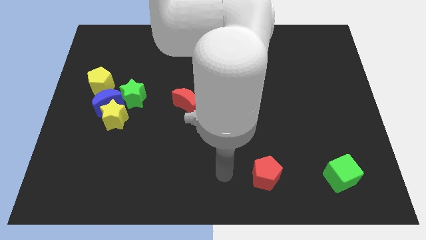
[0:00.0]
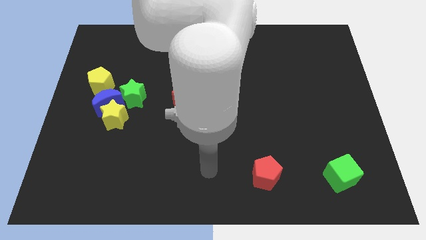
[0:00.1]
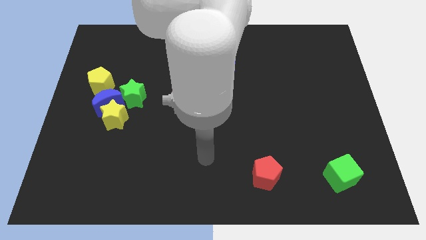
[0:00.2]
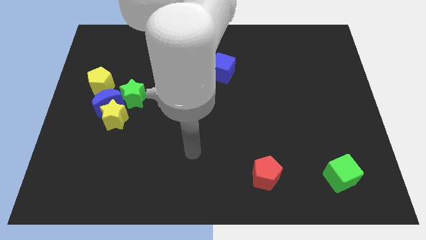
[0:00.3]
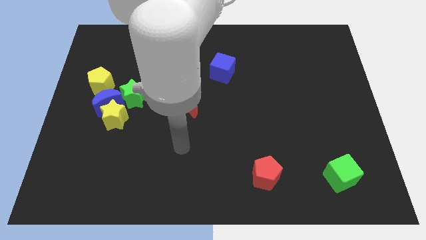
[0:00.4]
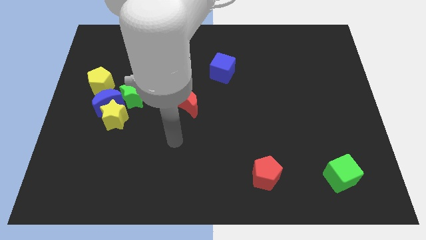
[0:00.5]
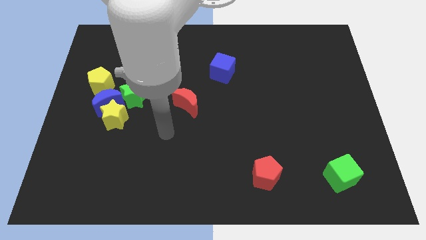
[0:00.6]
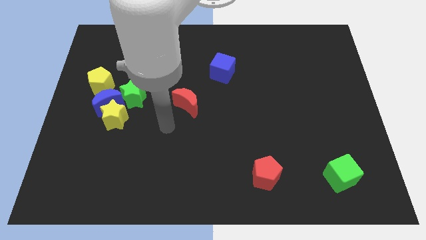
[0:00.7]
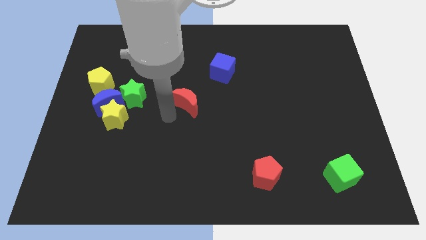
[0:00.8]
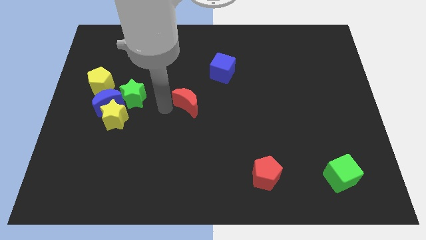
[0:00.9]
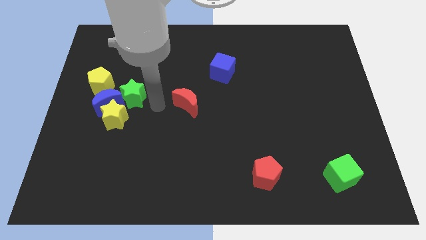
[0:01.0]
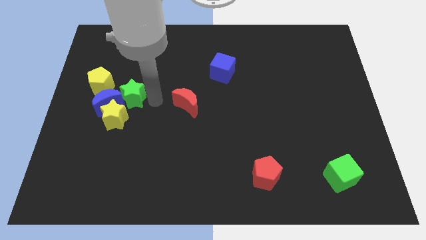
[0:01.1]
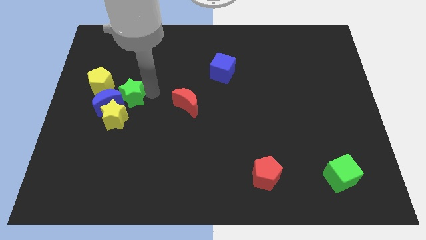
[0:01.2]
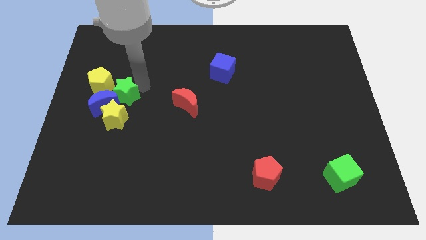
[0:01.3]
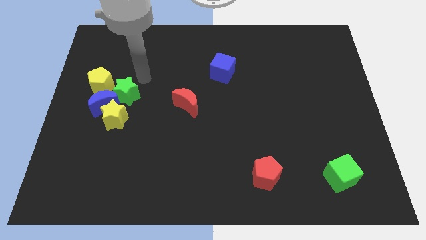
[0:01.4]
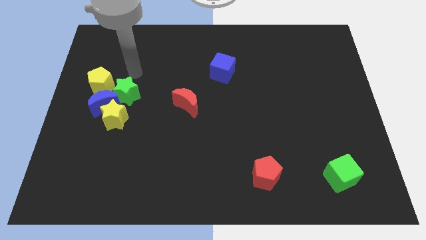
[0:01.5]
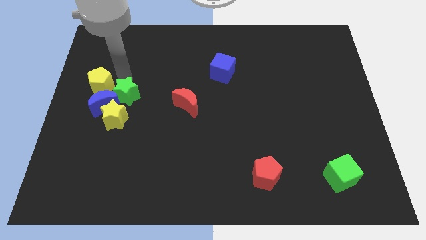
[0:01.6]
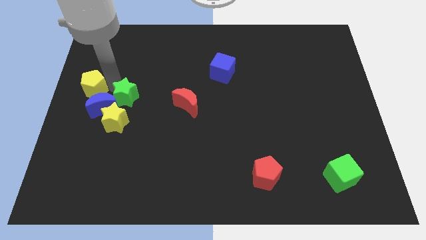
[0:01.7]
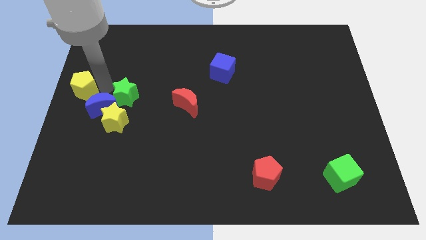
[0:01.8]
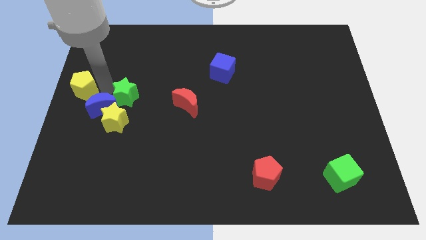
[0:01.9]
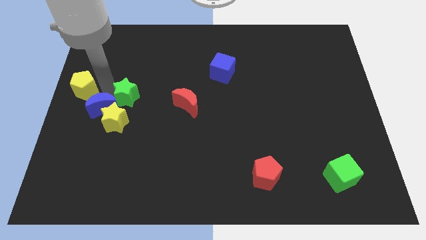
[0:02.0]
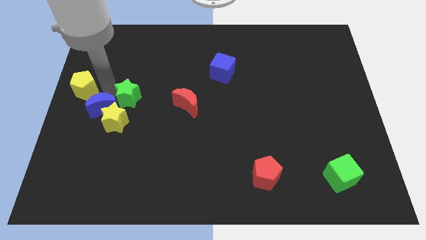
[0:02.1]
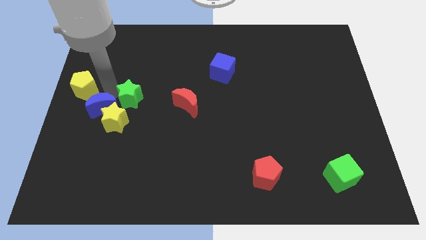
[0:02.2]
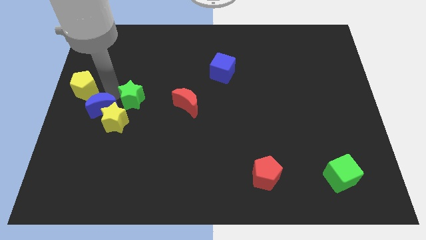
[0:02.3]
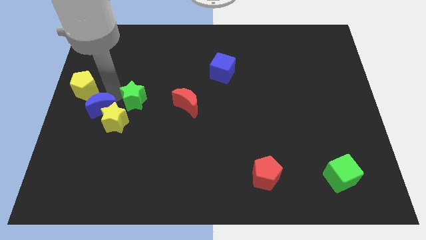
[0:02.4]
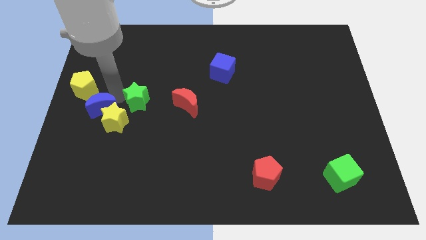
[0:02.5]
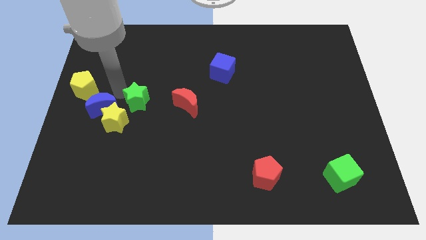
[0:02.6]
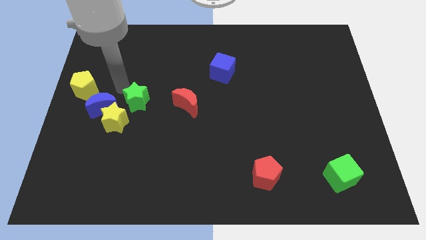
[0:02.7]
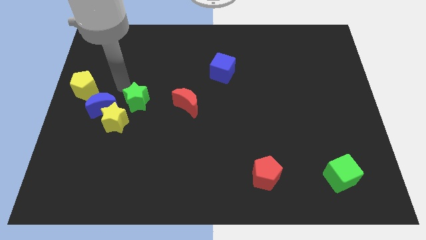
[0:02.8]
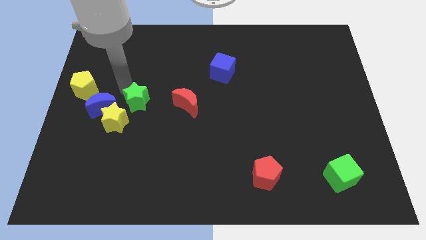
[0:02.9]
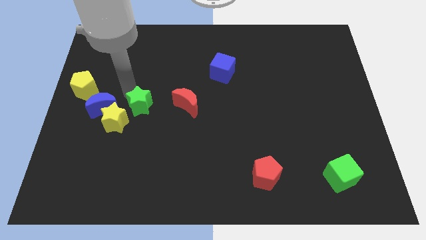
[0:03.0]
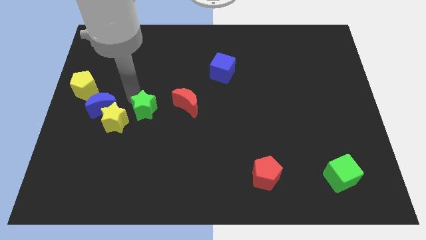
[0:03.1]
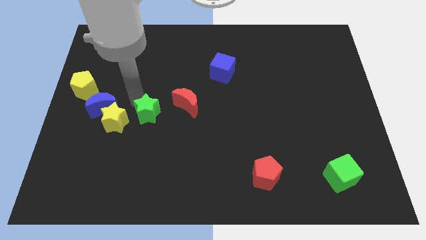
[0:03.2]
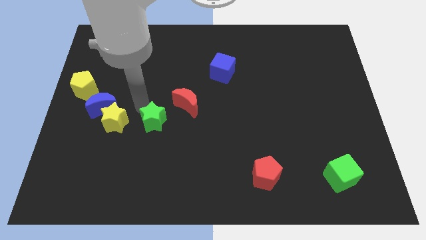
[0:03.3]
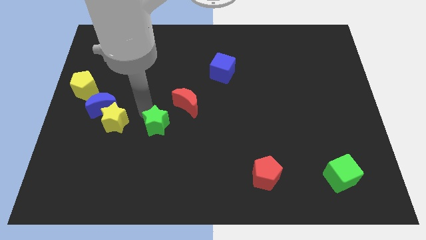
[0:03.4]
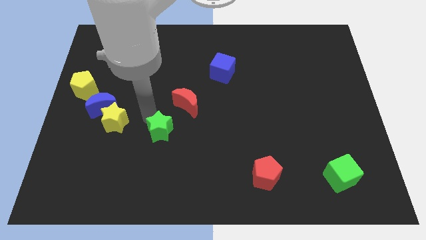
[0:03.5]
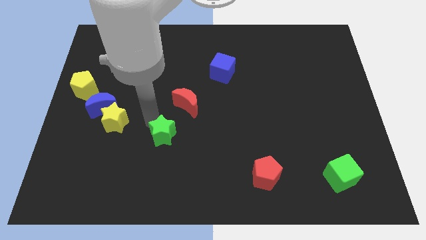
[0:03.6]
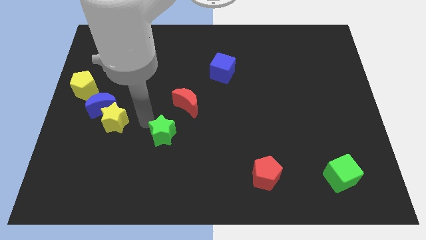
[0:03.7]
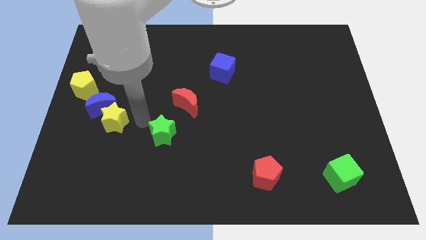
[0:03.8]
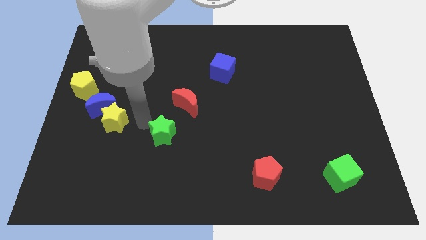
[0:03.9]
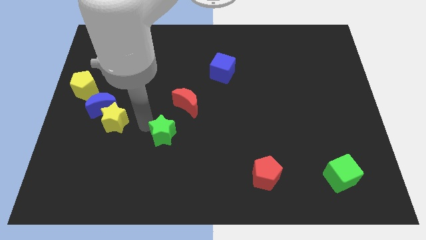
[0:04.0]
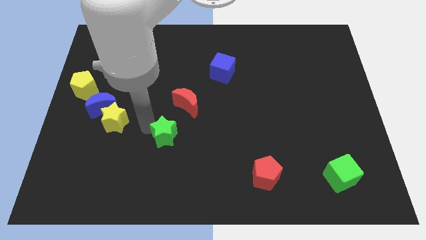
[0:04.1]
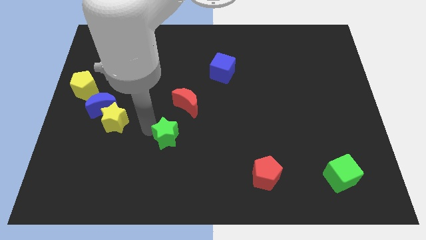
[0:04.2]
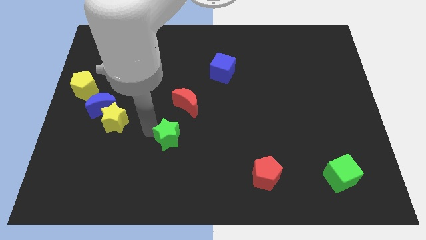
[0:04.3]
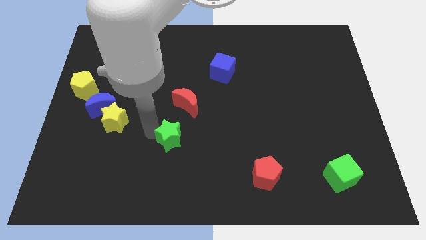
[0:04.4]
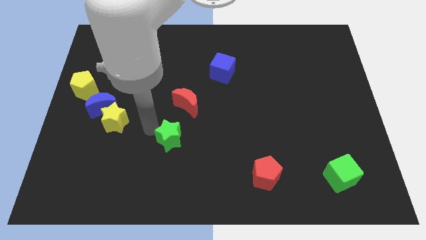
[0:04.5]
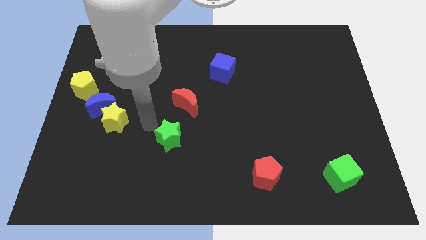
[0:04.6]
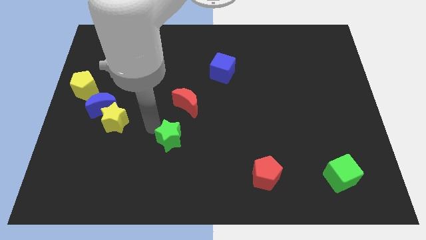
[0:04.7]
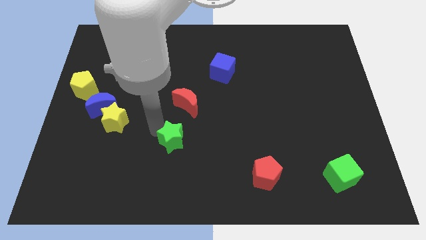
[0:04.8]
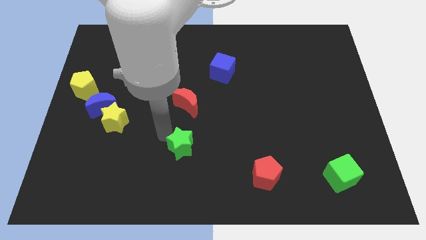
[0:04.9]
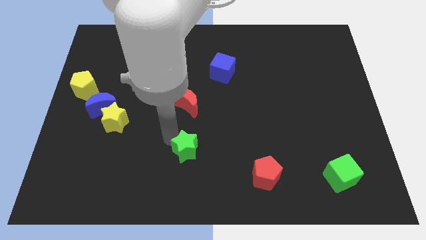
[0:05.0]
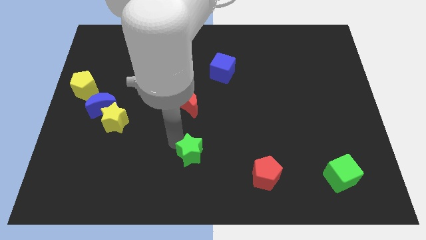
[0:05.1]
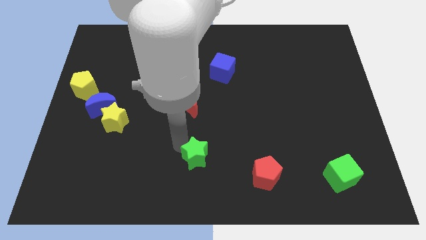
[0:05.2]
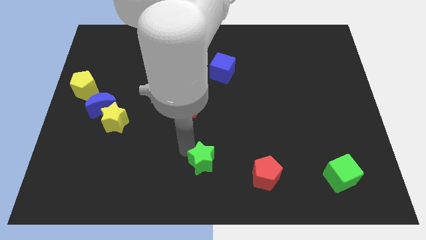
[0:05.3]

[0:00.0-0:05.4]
push the green star to the left side of the red pentagon

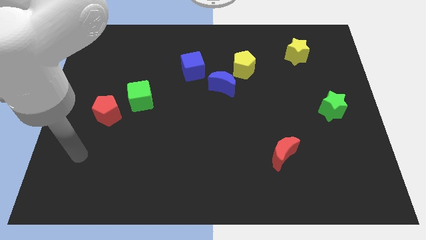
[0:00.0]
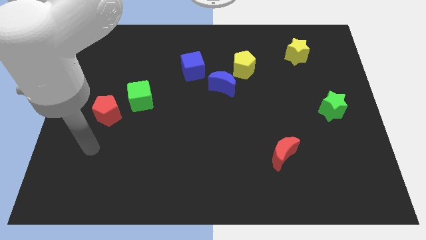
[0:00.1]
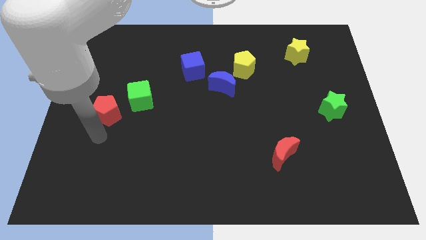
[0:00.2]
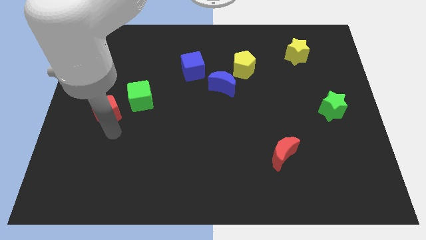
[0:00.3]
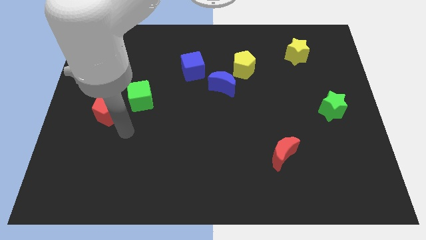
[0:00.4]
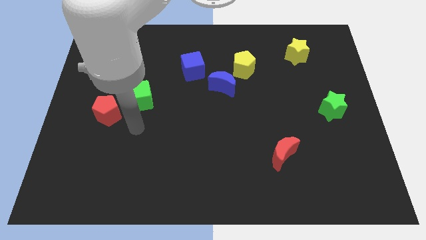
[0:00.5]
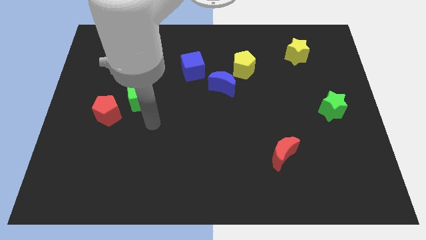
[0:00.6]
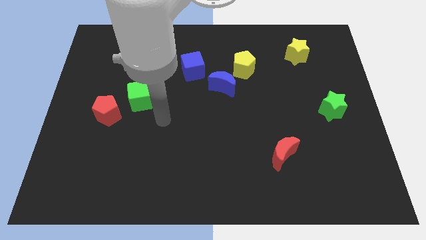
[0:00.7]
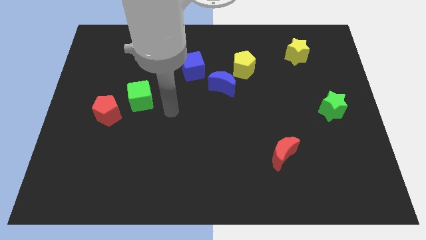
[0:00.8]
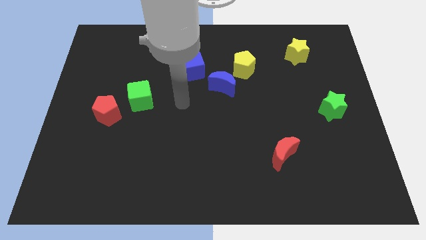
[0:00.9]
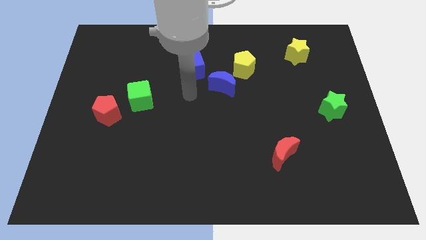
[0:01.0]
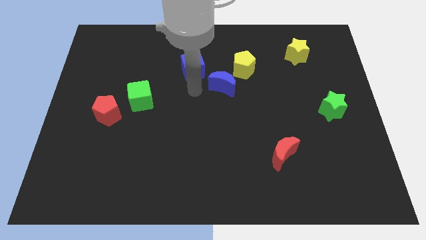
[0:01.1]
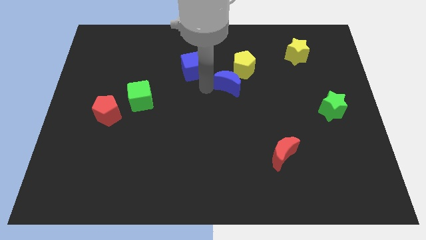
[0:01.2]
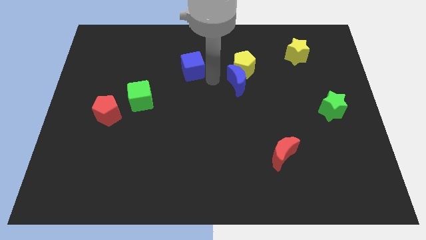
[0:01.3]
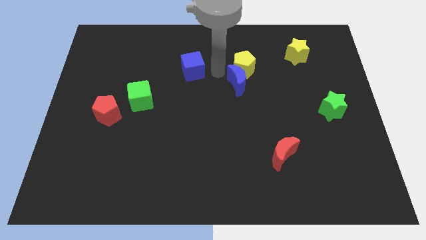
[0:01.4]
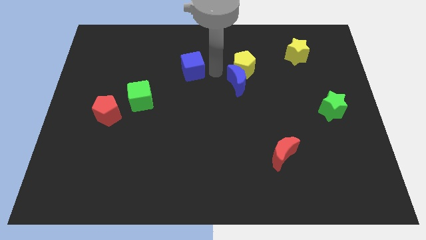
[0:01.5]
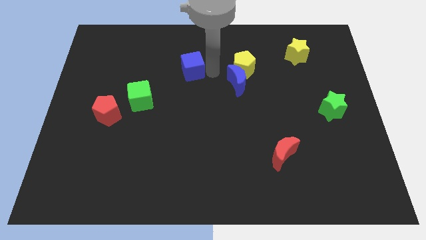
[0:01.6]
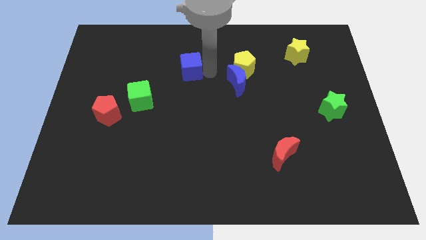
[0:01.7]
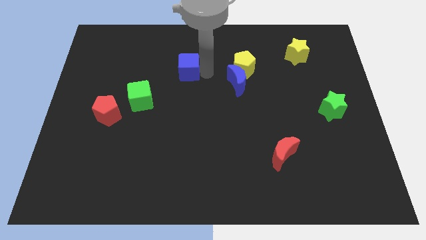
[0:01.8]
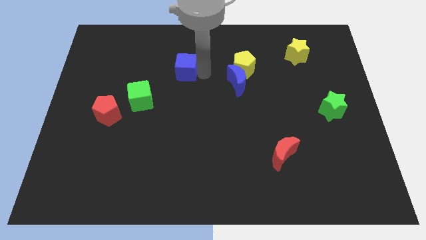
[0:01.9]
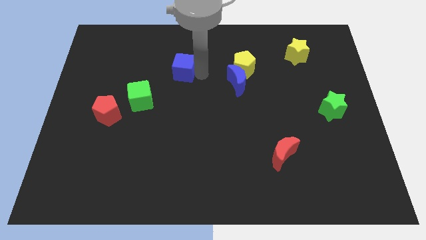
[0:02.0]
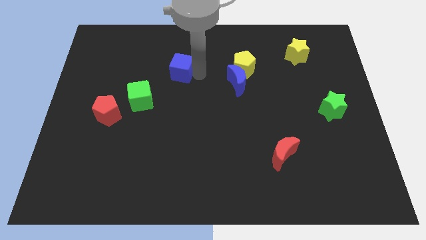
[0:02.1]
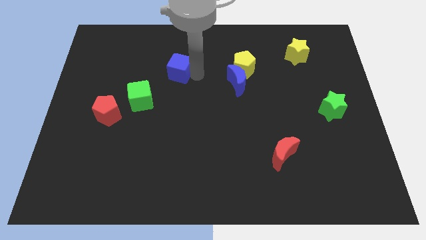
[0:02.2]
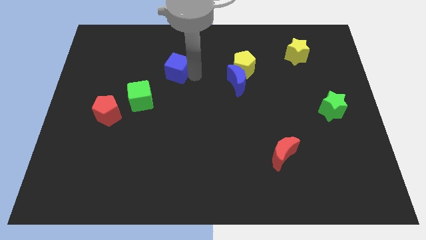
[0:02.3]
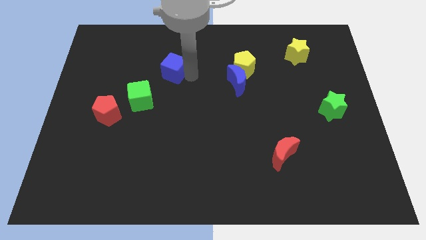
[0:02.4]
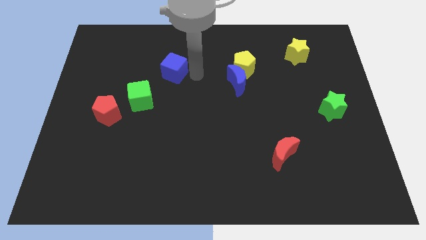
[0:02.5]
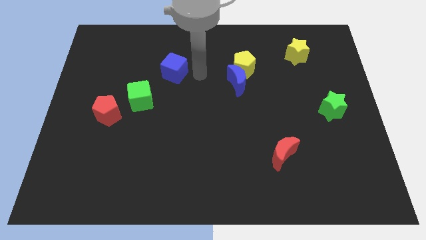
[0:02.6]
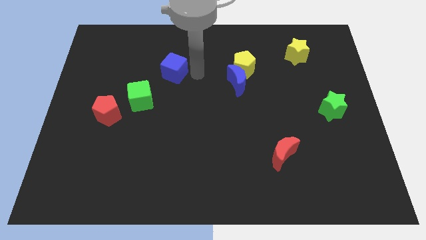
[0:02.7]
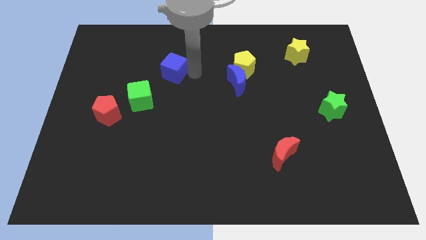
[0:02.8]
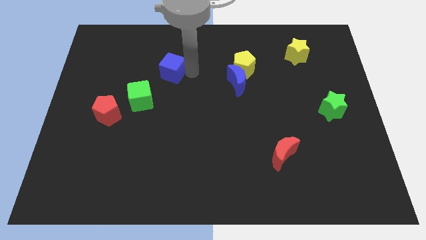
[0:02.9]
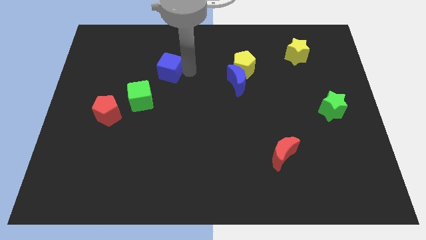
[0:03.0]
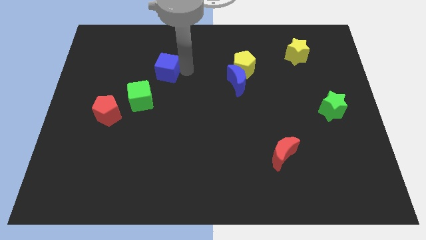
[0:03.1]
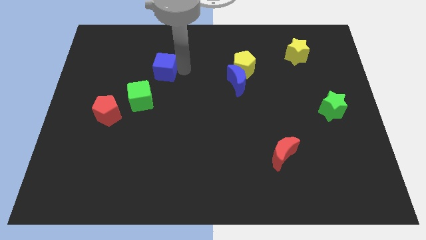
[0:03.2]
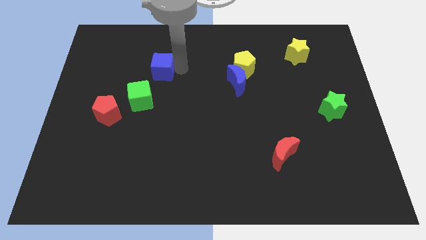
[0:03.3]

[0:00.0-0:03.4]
slide the blue cube to the top side of the green cube
